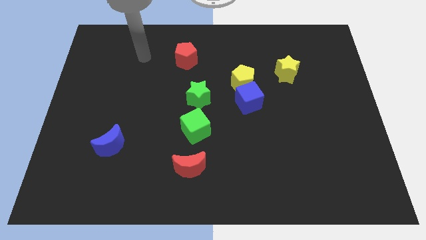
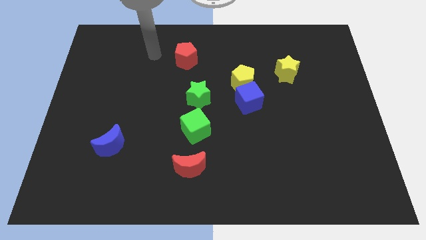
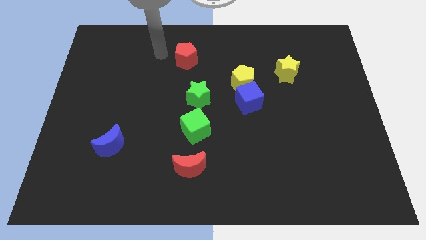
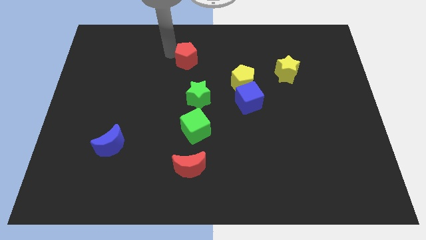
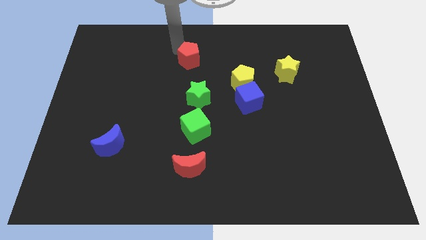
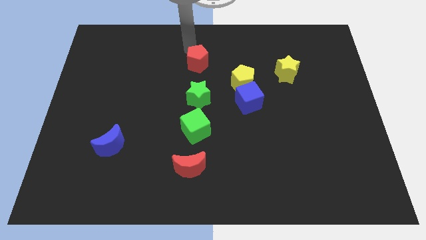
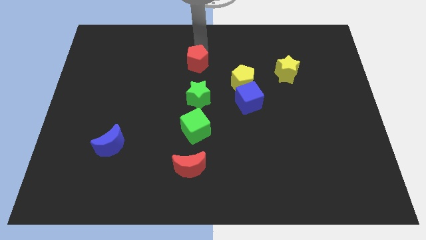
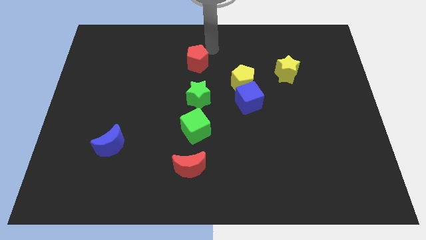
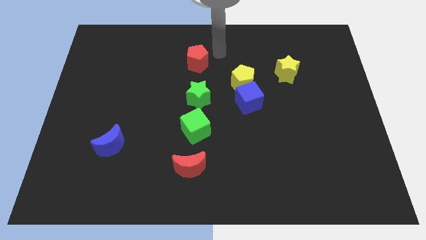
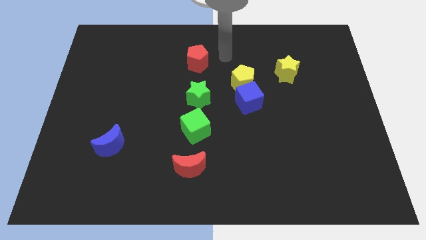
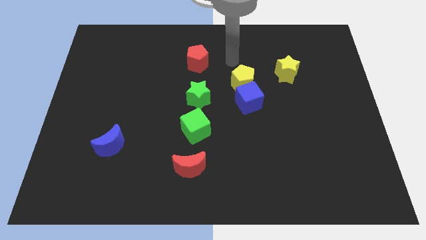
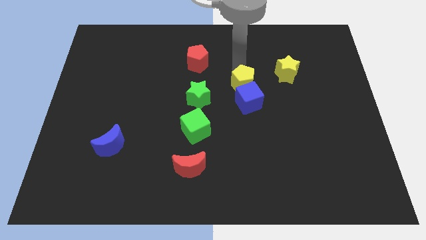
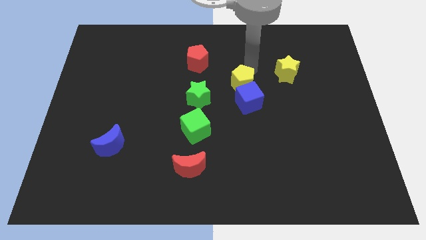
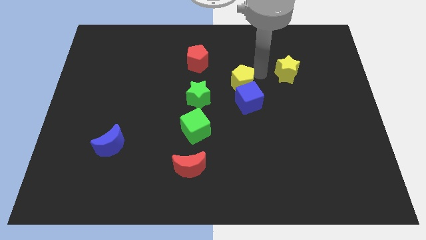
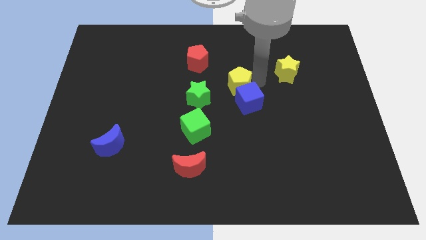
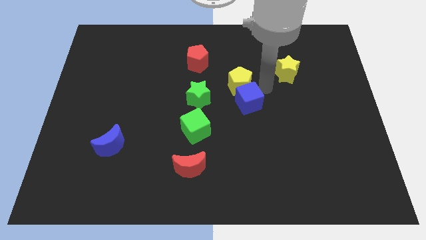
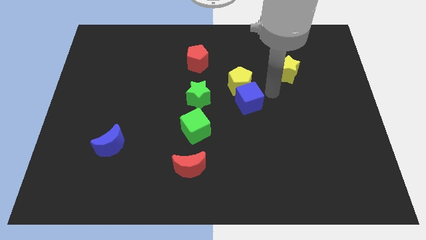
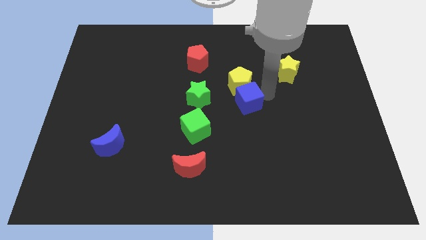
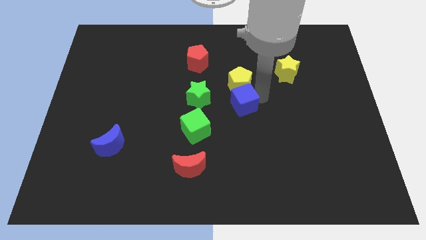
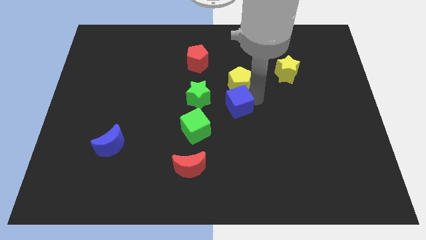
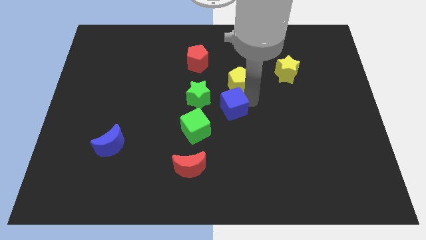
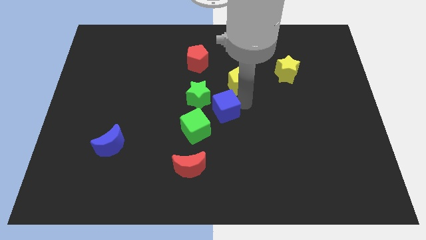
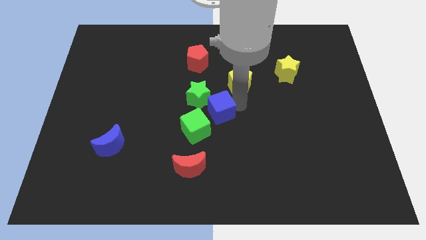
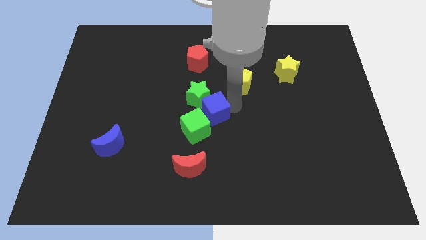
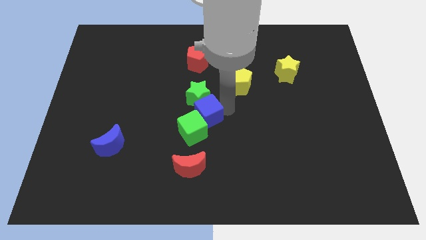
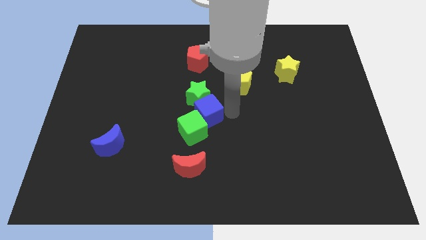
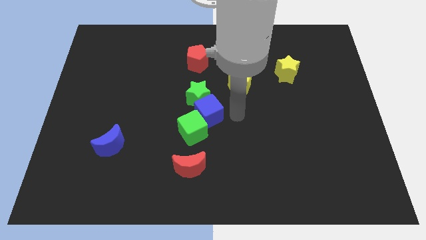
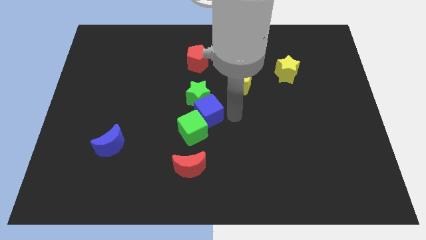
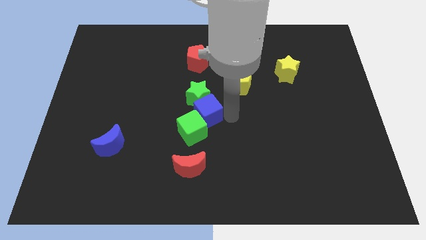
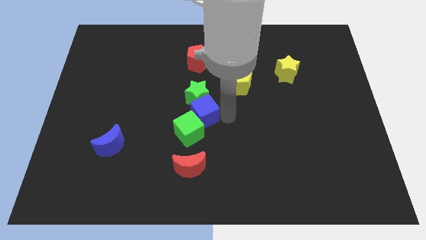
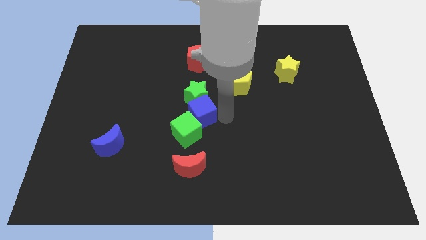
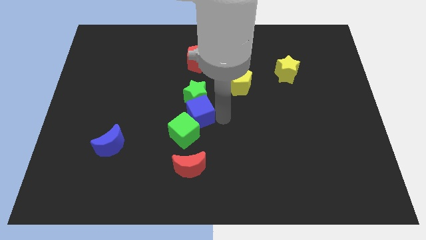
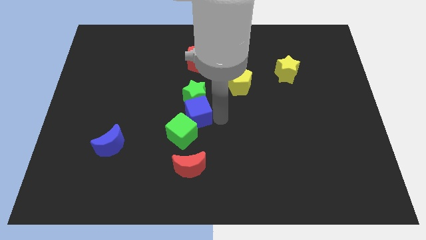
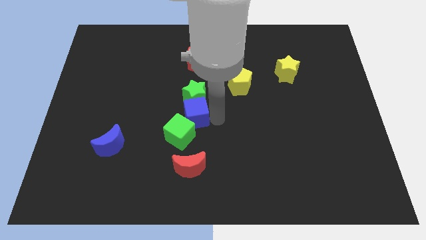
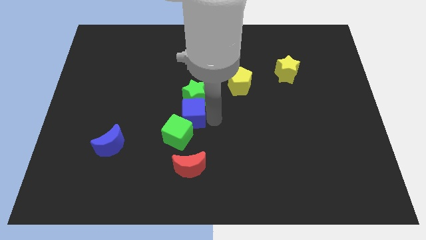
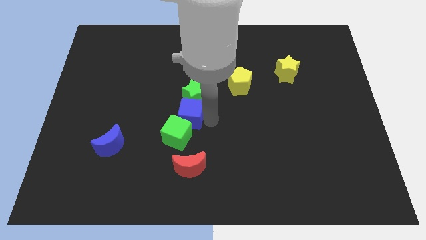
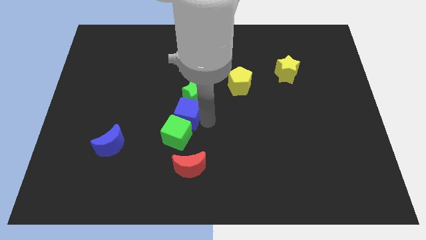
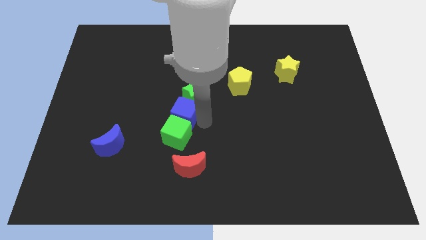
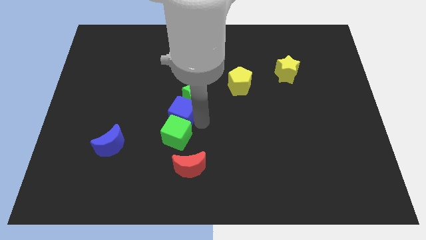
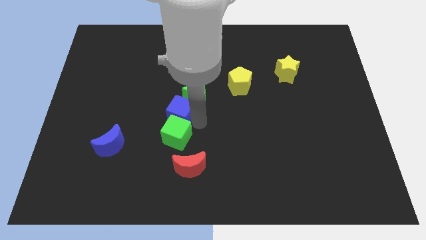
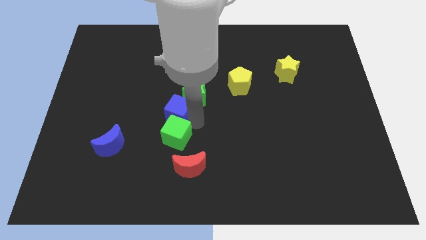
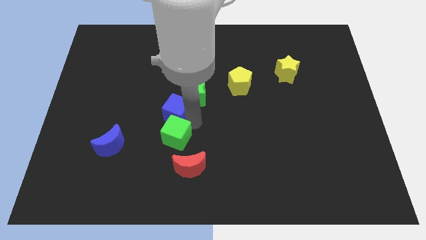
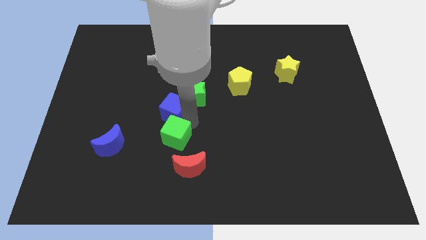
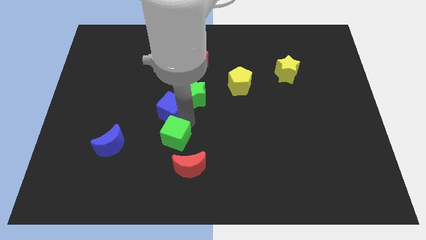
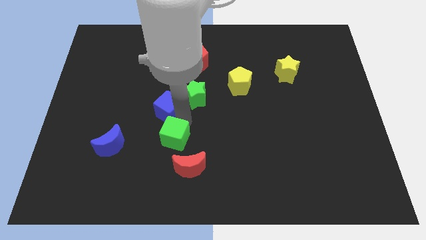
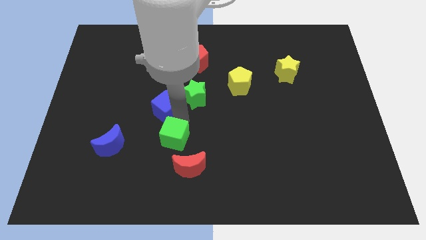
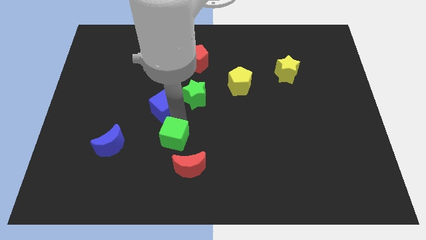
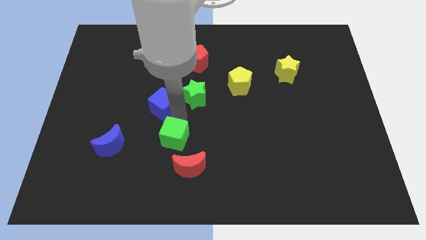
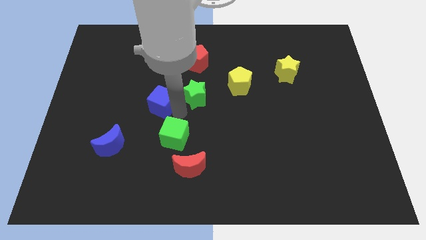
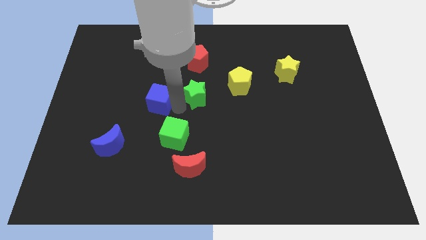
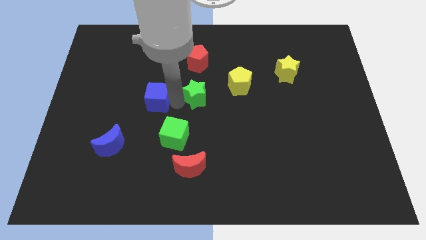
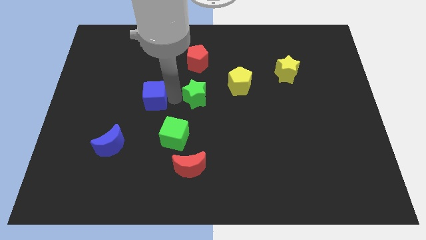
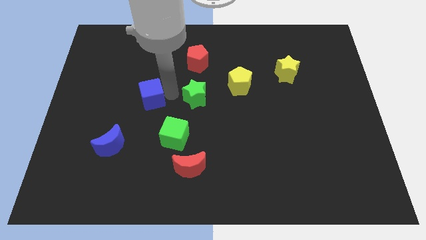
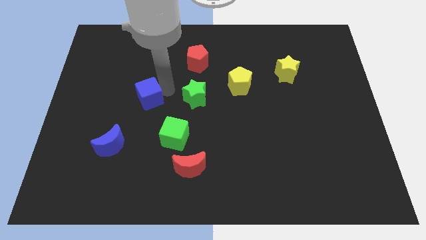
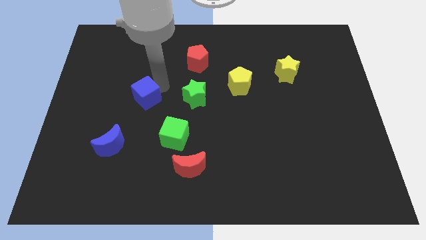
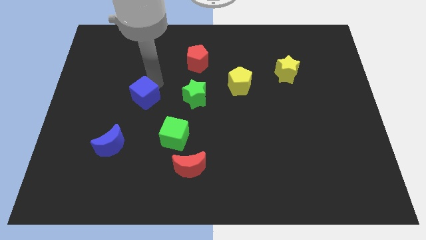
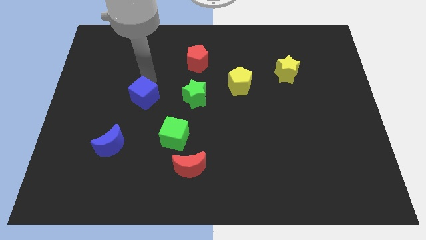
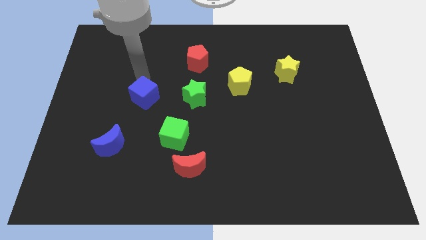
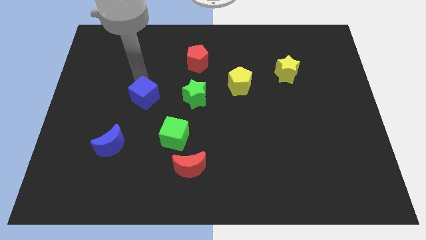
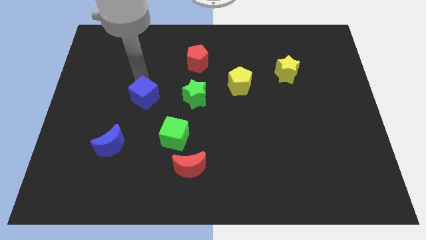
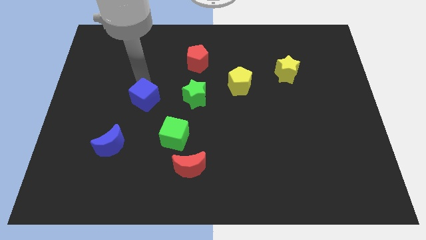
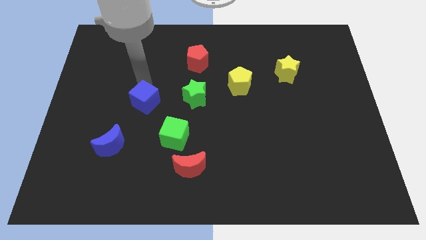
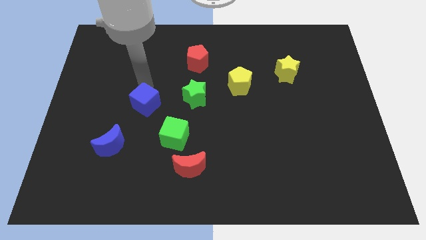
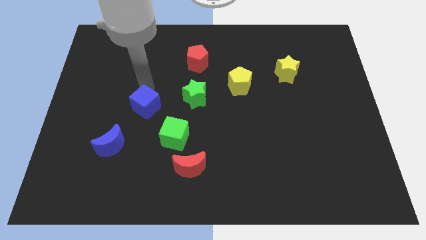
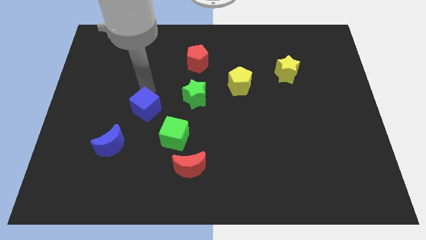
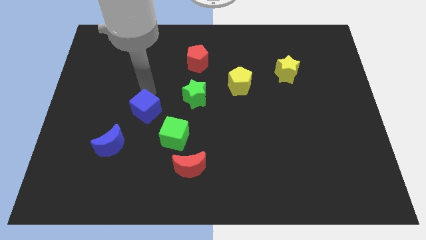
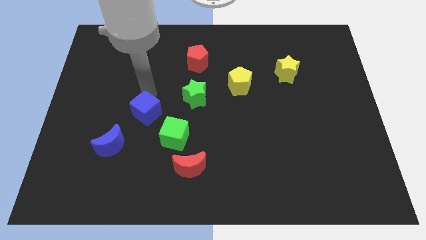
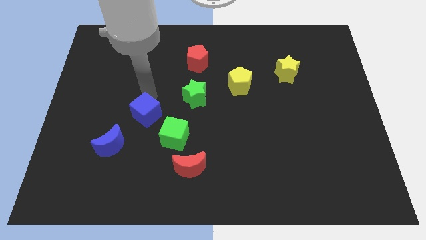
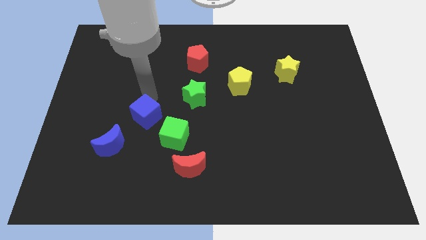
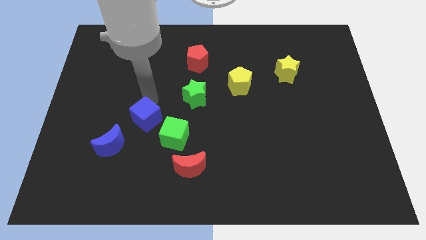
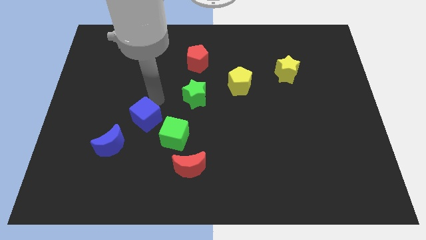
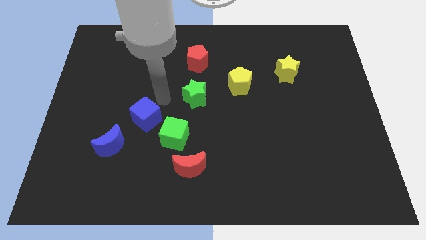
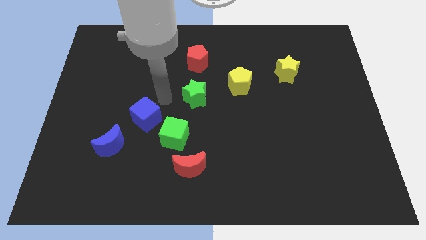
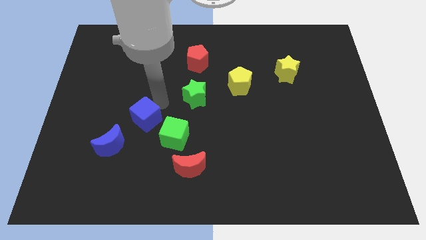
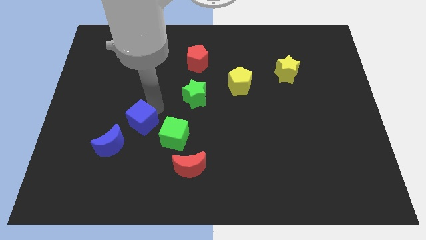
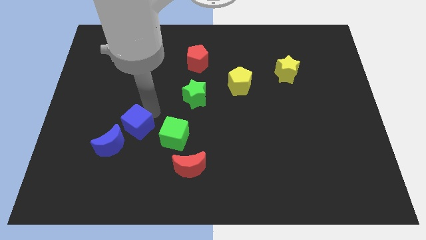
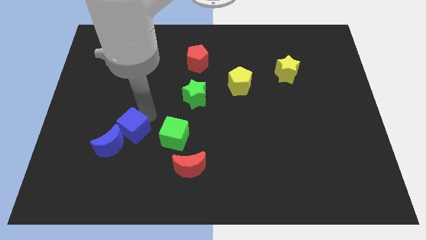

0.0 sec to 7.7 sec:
move the blue cube towards the blue moon
